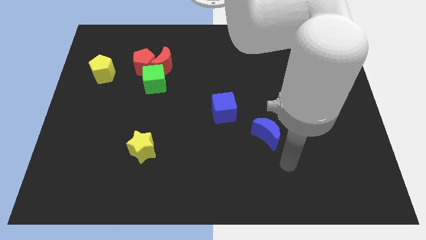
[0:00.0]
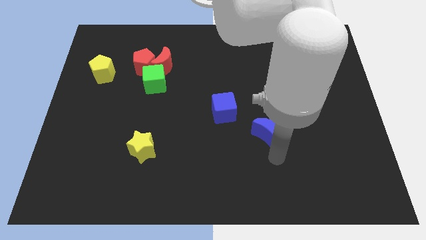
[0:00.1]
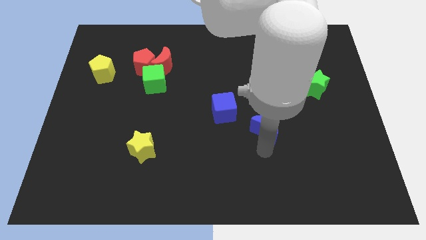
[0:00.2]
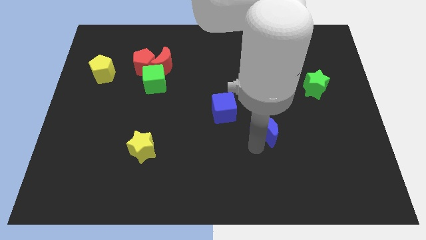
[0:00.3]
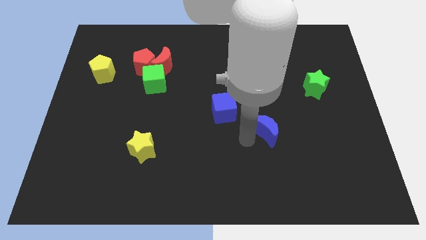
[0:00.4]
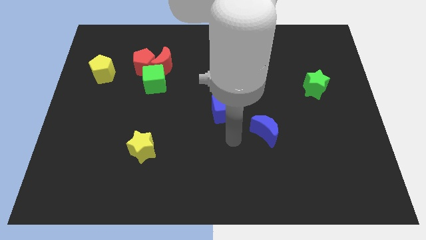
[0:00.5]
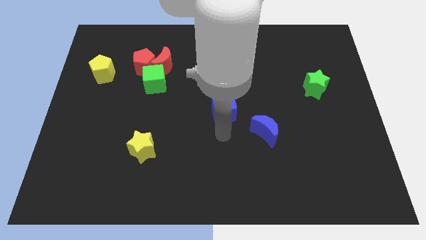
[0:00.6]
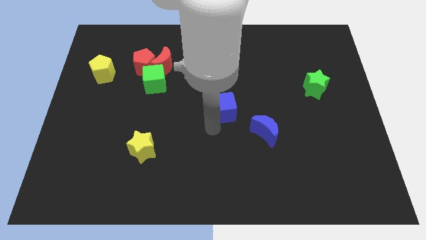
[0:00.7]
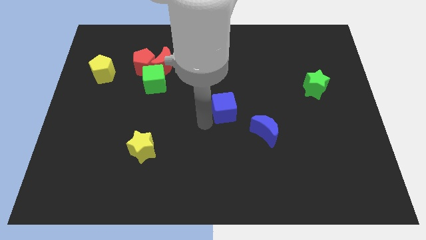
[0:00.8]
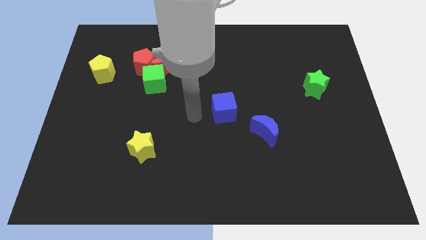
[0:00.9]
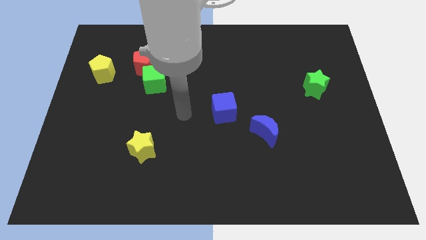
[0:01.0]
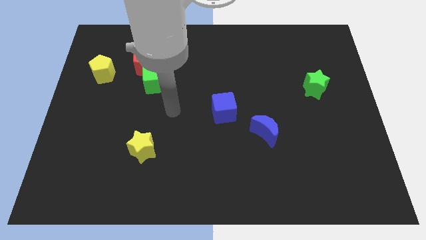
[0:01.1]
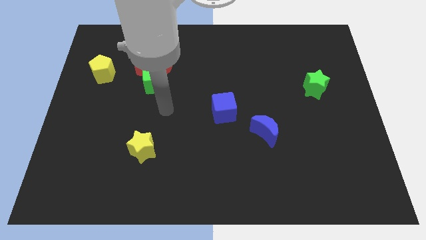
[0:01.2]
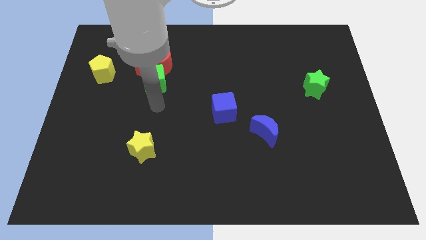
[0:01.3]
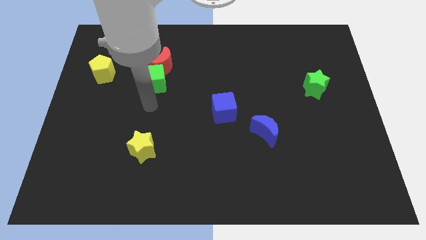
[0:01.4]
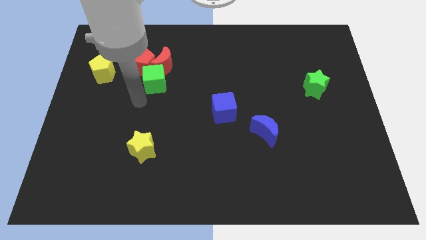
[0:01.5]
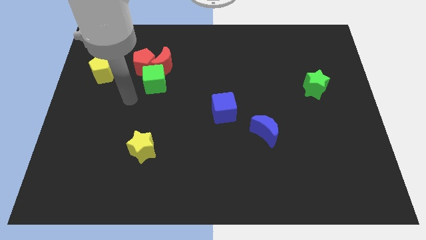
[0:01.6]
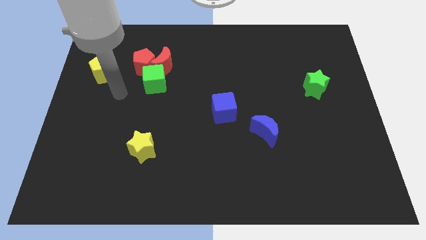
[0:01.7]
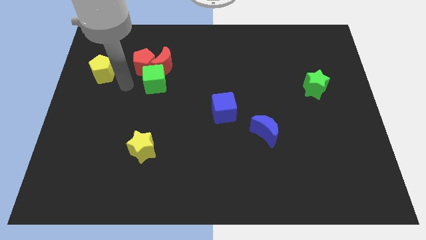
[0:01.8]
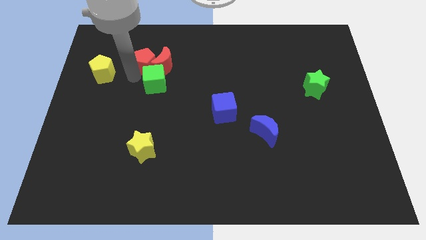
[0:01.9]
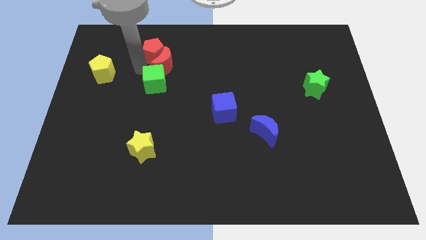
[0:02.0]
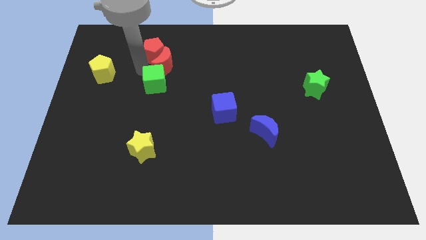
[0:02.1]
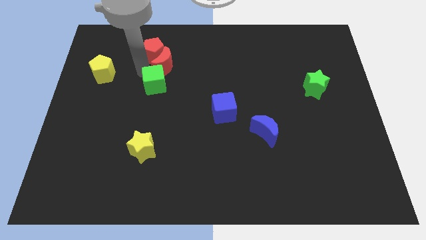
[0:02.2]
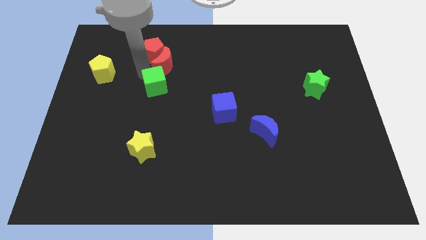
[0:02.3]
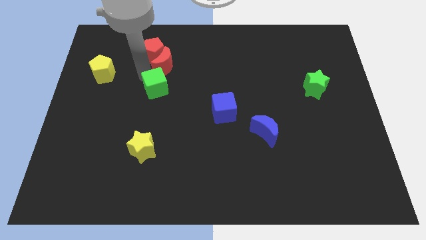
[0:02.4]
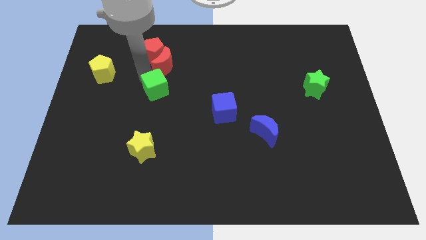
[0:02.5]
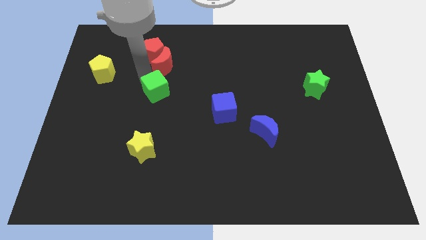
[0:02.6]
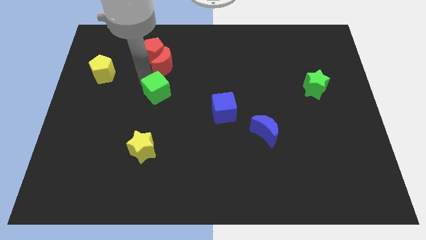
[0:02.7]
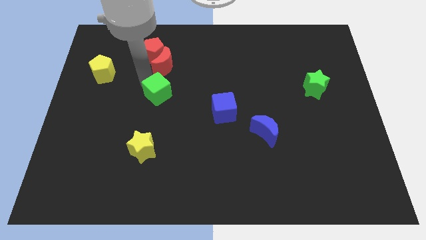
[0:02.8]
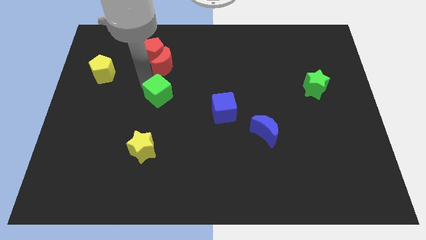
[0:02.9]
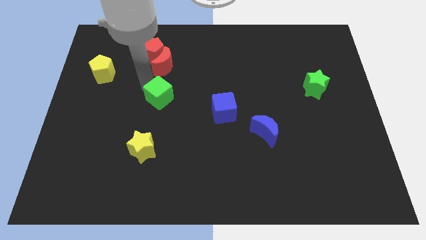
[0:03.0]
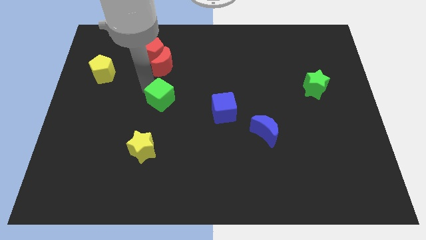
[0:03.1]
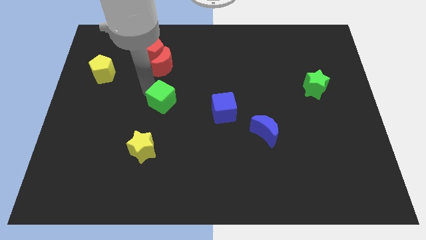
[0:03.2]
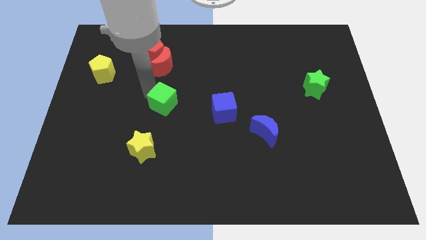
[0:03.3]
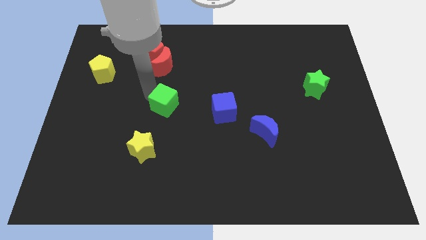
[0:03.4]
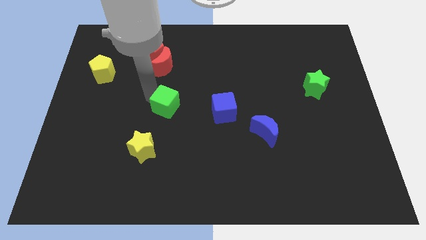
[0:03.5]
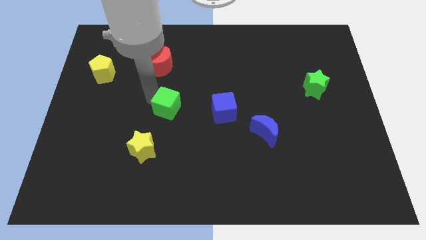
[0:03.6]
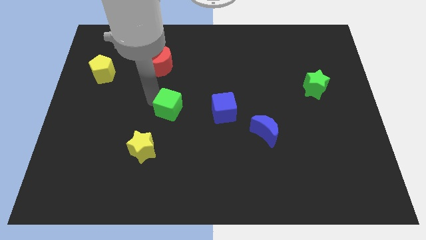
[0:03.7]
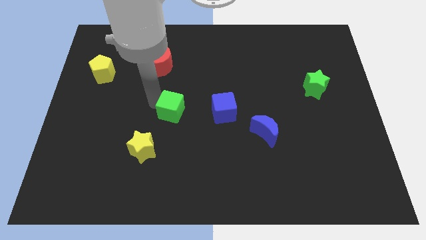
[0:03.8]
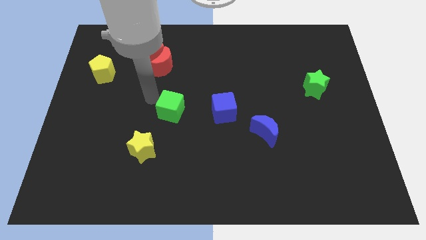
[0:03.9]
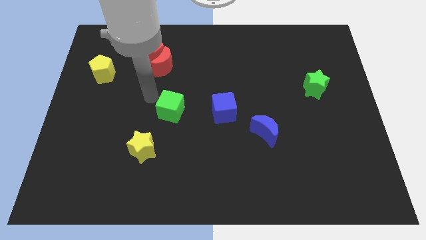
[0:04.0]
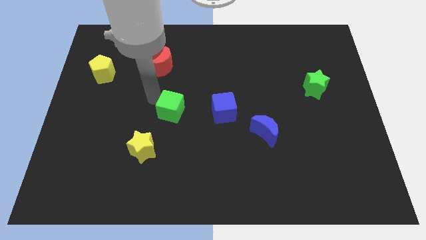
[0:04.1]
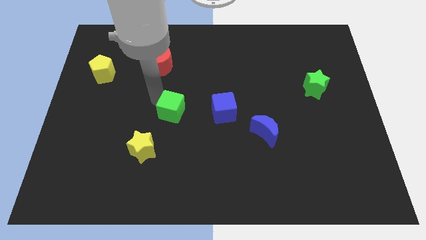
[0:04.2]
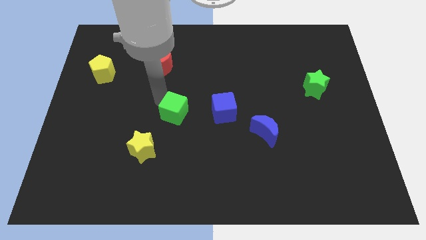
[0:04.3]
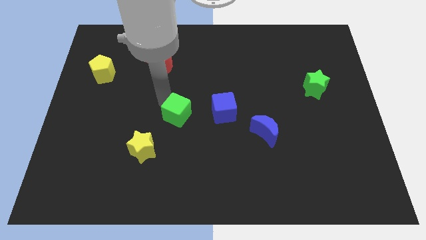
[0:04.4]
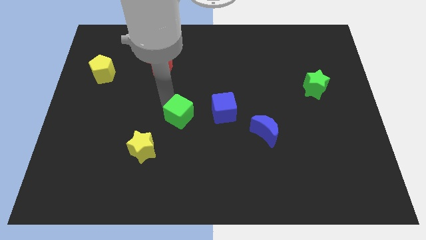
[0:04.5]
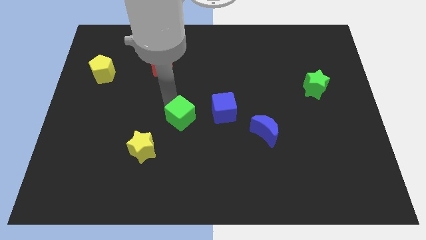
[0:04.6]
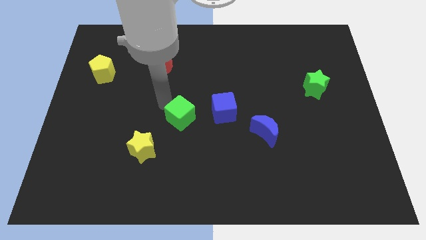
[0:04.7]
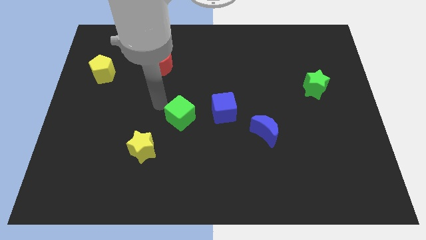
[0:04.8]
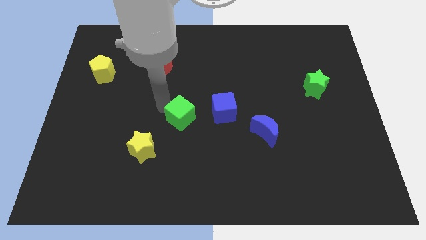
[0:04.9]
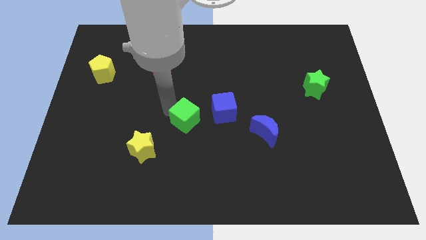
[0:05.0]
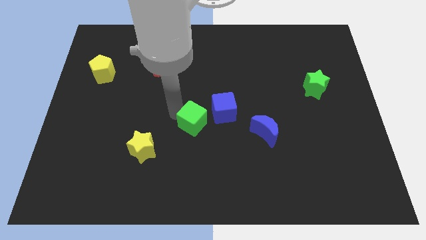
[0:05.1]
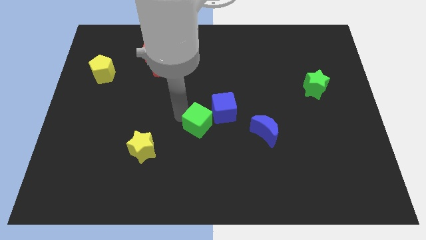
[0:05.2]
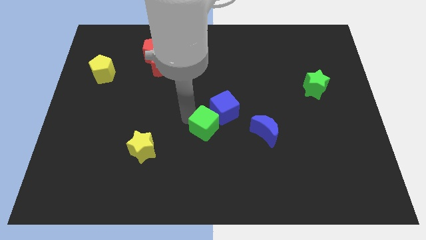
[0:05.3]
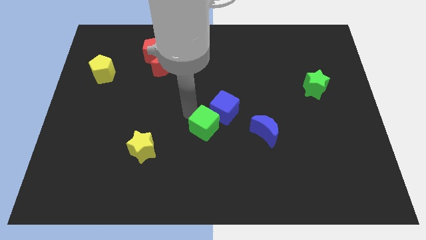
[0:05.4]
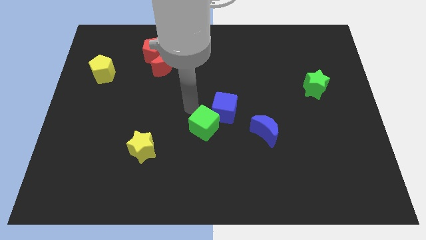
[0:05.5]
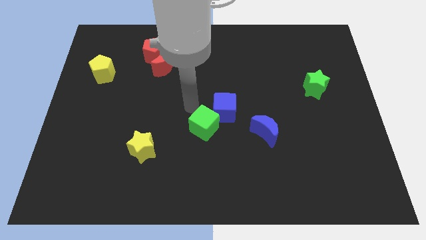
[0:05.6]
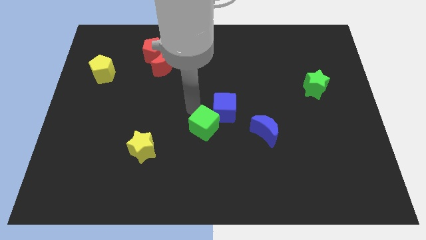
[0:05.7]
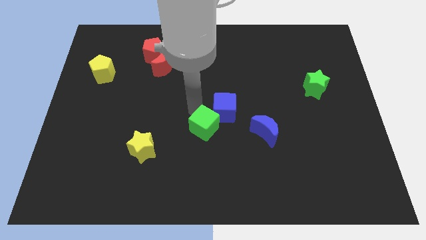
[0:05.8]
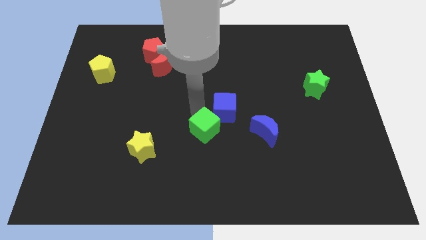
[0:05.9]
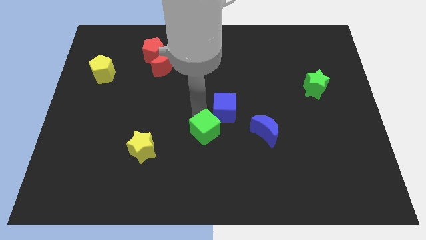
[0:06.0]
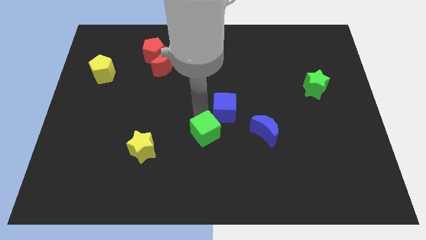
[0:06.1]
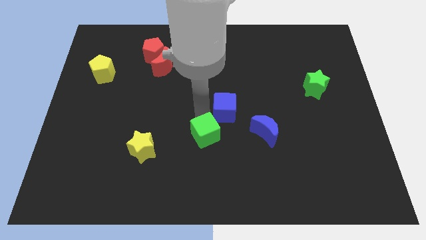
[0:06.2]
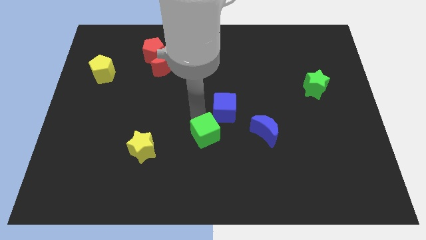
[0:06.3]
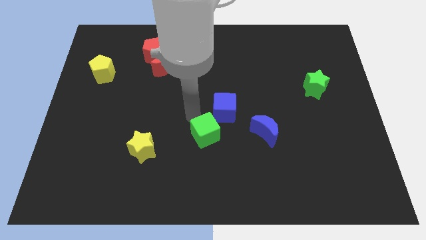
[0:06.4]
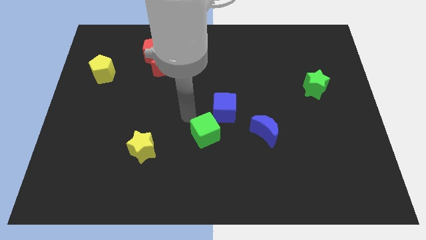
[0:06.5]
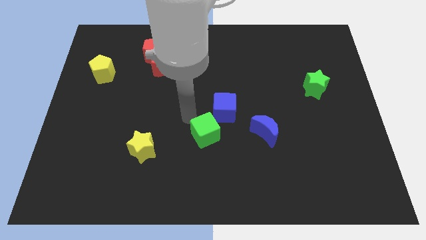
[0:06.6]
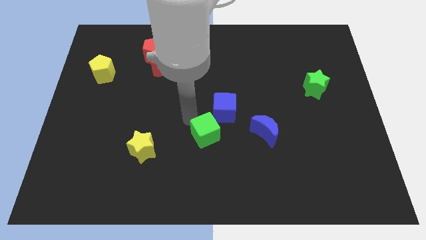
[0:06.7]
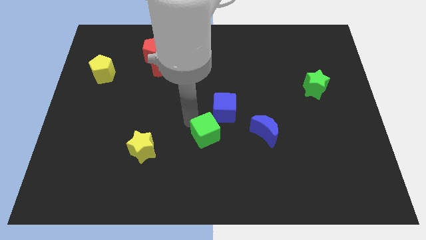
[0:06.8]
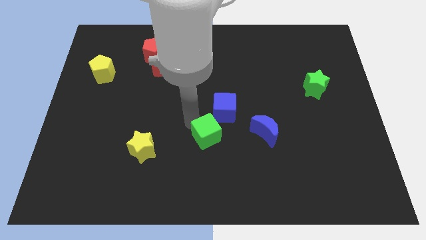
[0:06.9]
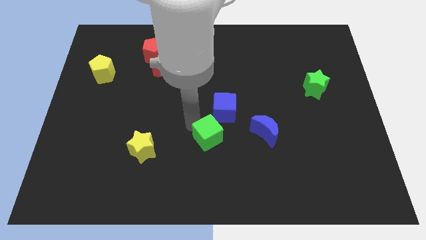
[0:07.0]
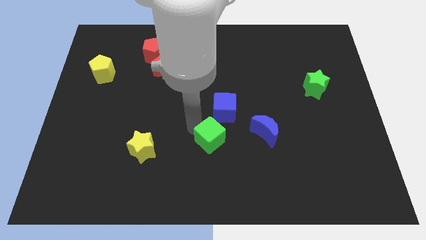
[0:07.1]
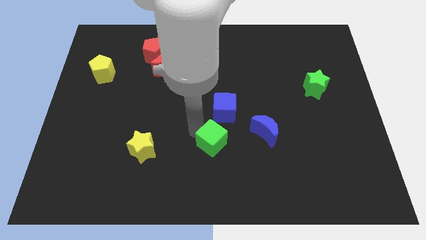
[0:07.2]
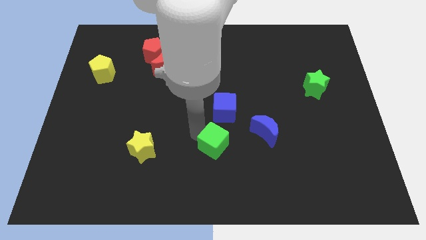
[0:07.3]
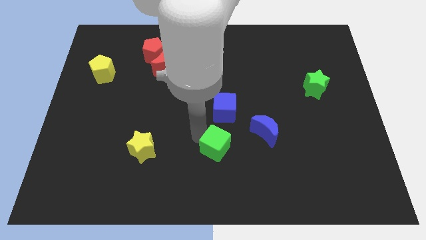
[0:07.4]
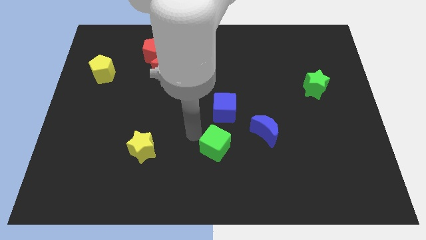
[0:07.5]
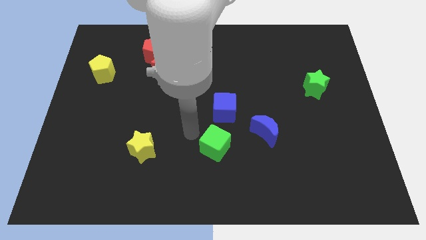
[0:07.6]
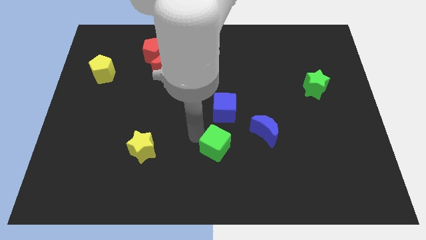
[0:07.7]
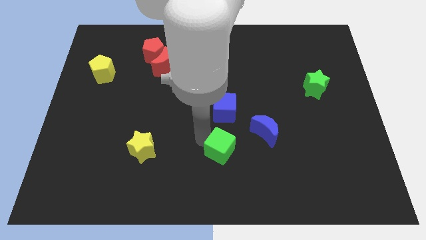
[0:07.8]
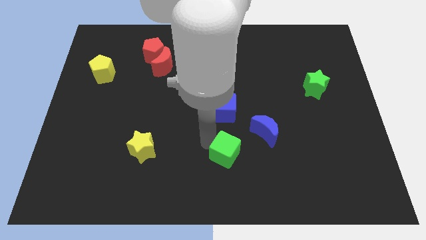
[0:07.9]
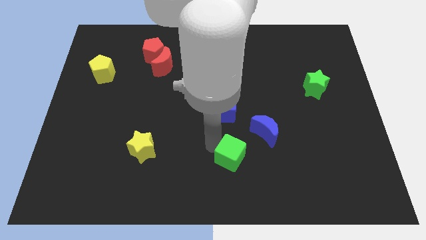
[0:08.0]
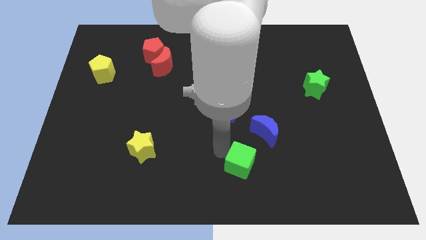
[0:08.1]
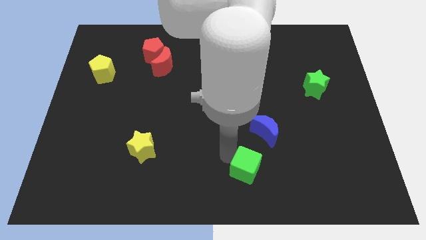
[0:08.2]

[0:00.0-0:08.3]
push the green cube below the blue moon
